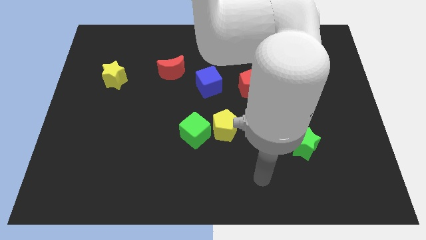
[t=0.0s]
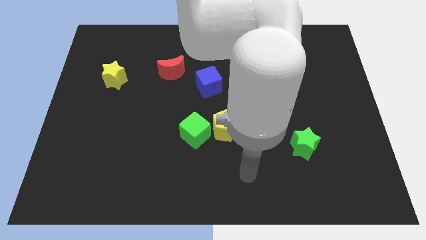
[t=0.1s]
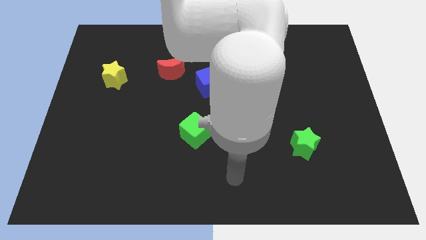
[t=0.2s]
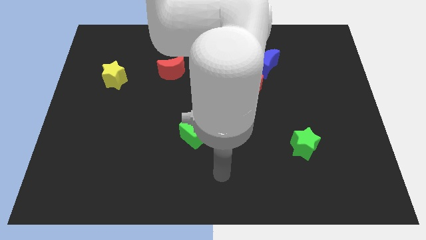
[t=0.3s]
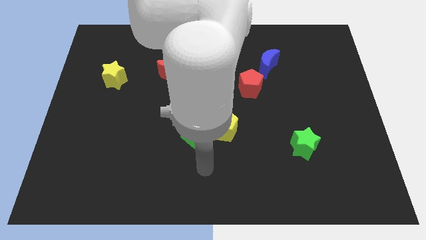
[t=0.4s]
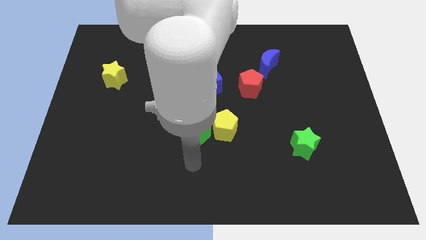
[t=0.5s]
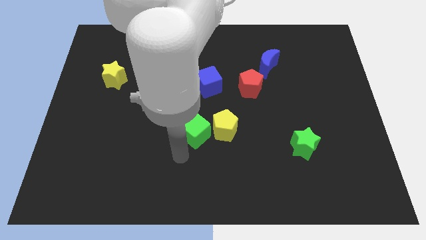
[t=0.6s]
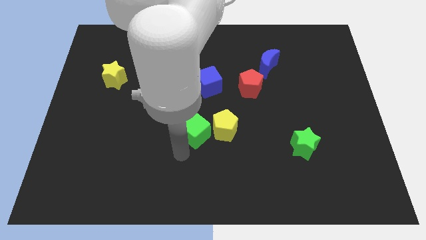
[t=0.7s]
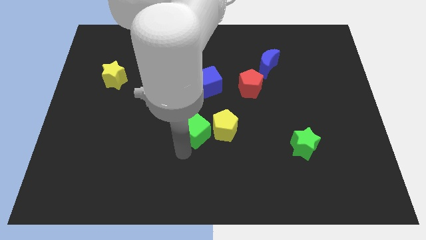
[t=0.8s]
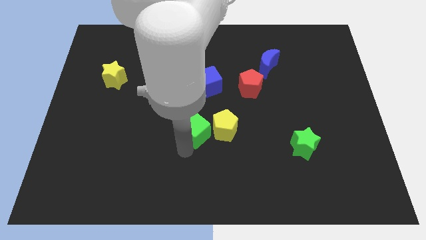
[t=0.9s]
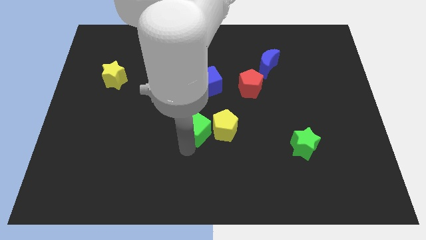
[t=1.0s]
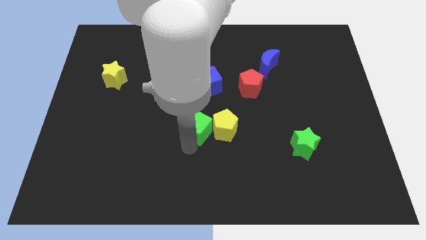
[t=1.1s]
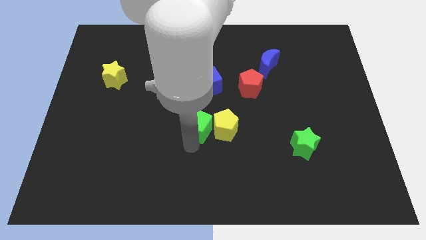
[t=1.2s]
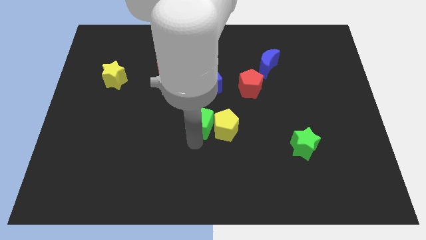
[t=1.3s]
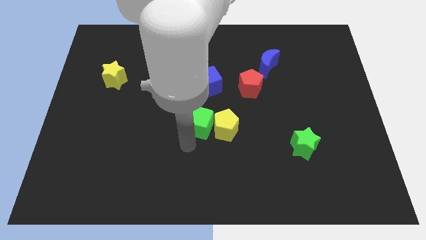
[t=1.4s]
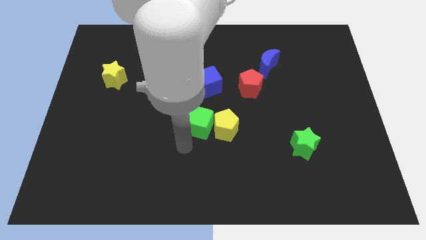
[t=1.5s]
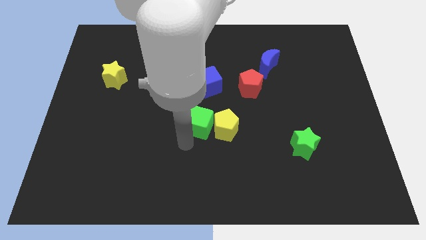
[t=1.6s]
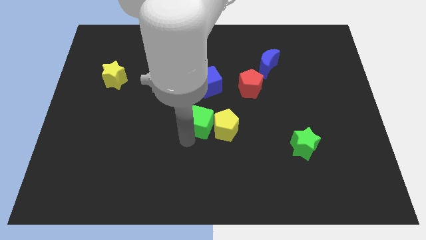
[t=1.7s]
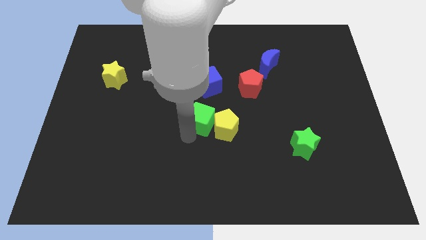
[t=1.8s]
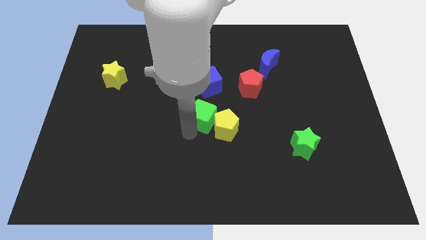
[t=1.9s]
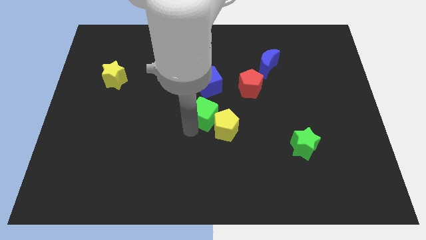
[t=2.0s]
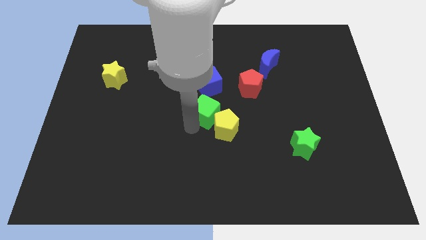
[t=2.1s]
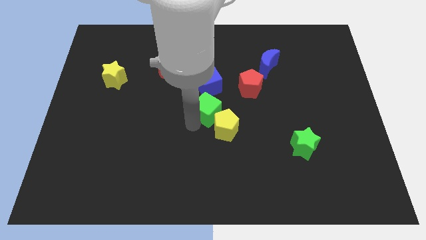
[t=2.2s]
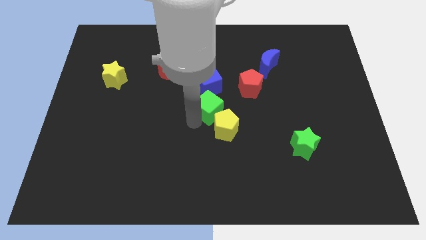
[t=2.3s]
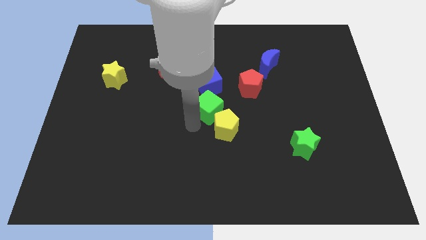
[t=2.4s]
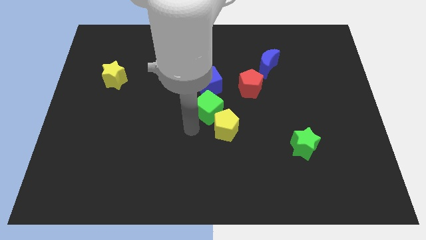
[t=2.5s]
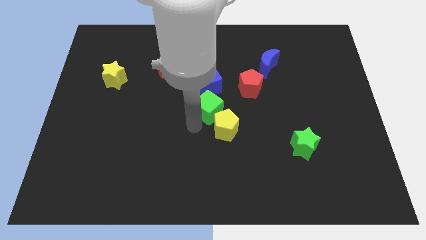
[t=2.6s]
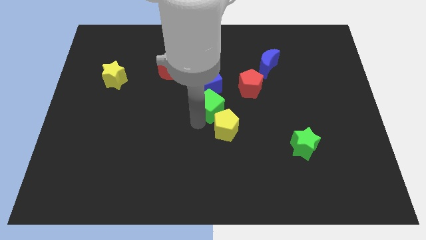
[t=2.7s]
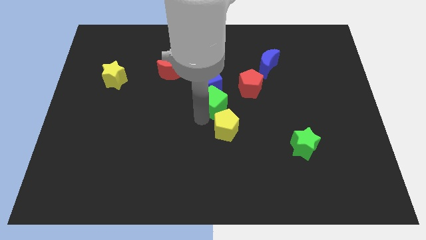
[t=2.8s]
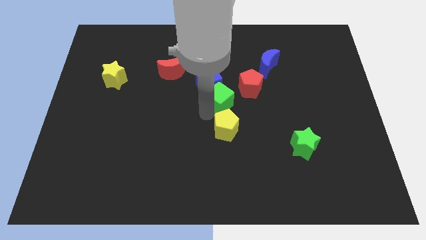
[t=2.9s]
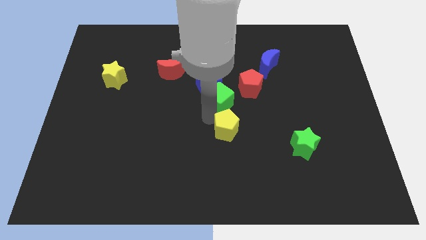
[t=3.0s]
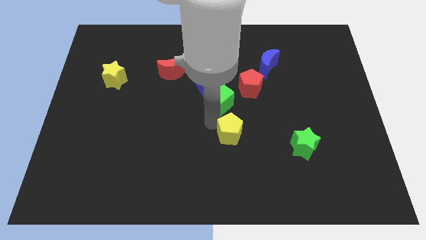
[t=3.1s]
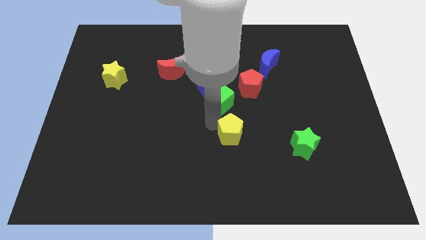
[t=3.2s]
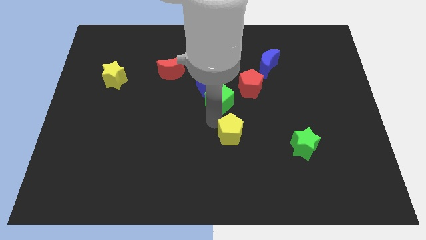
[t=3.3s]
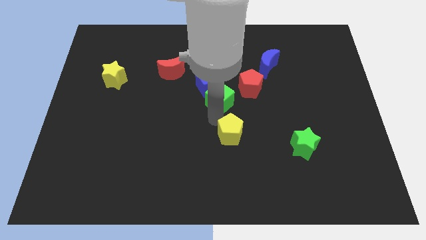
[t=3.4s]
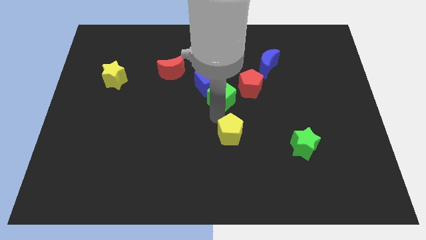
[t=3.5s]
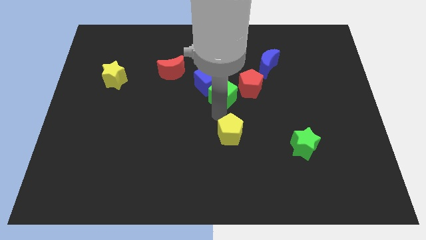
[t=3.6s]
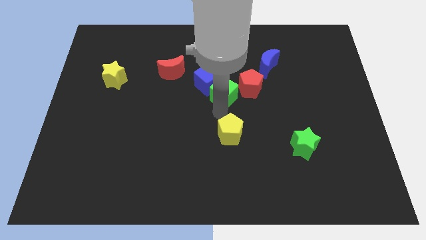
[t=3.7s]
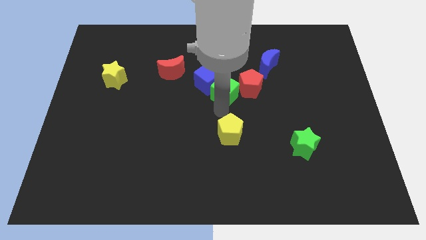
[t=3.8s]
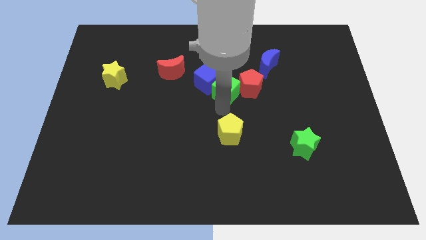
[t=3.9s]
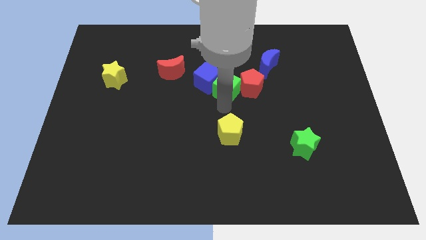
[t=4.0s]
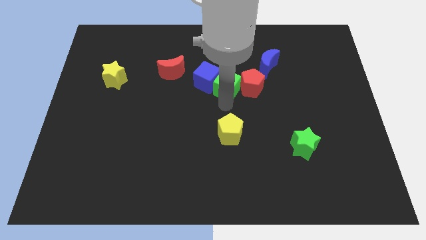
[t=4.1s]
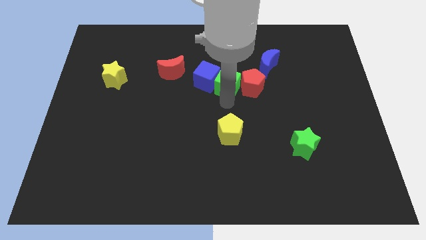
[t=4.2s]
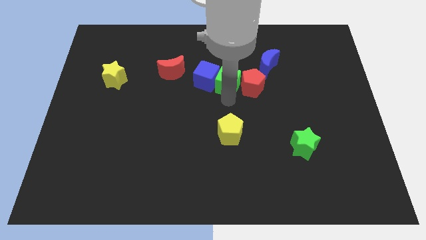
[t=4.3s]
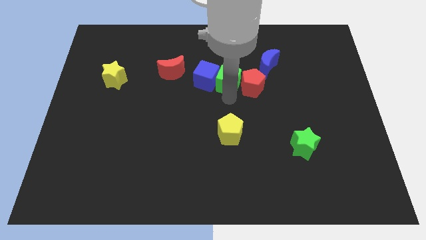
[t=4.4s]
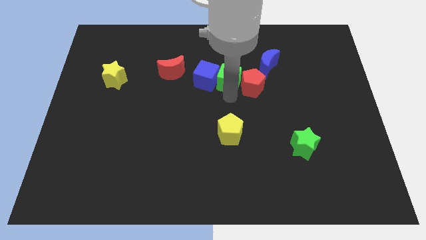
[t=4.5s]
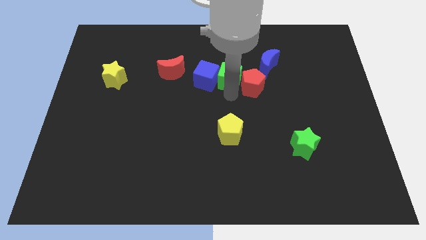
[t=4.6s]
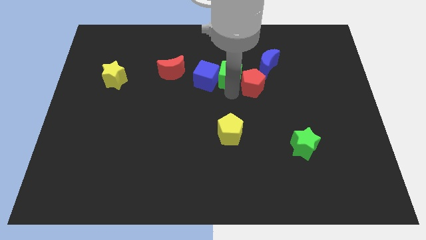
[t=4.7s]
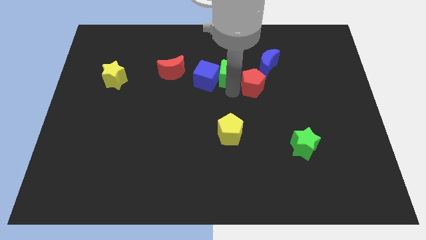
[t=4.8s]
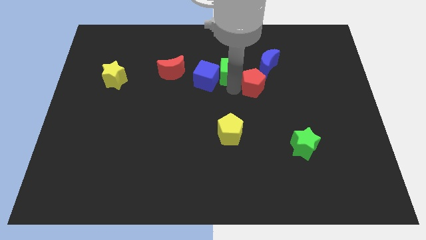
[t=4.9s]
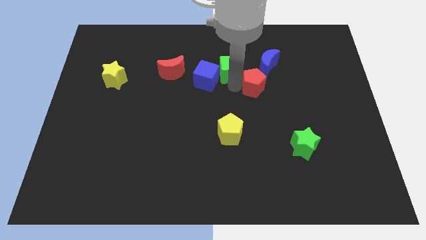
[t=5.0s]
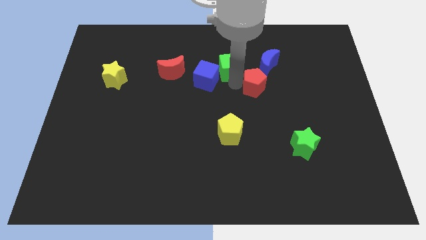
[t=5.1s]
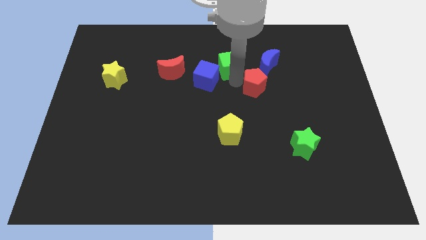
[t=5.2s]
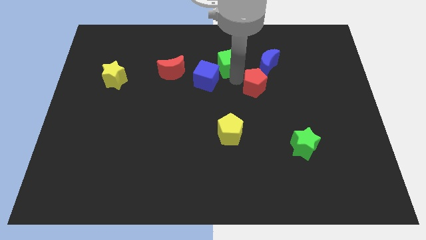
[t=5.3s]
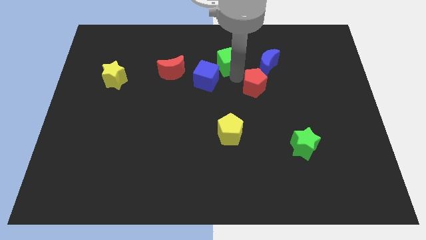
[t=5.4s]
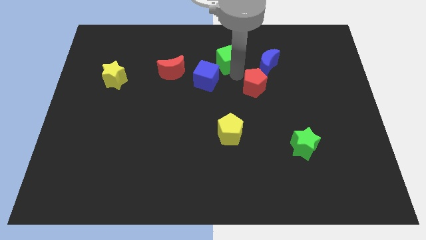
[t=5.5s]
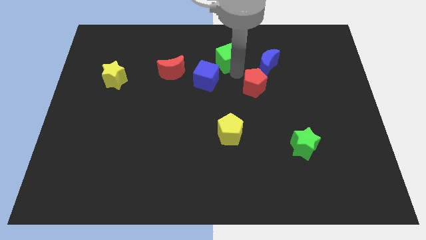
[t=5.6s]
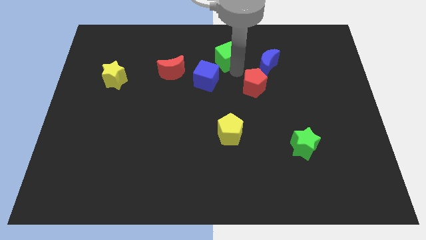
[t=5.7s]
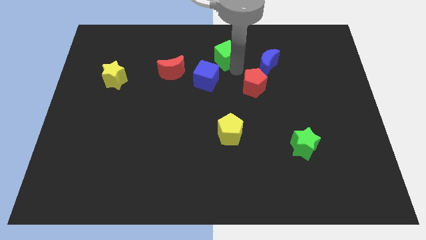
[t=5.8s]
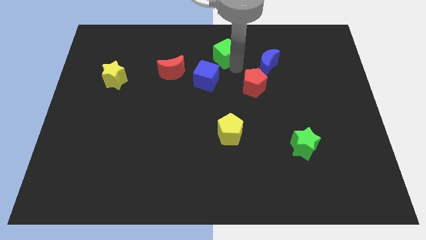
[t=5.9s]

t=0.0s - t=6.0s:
put the green cube to the top

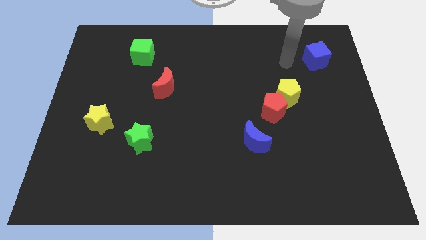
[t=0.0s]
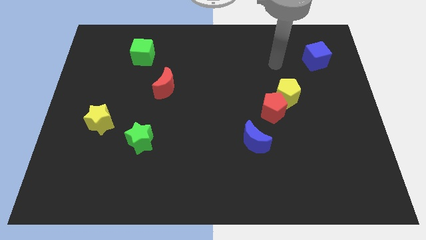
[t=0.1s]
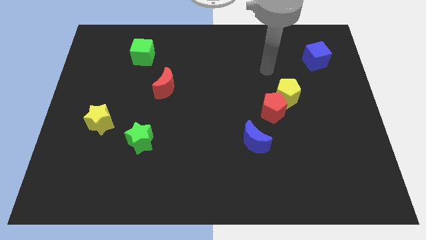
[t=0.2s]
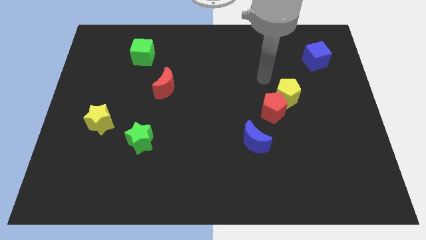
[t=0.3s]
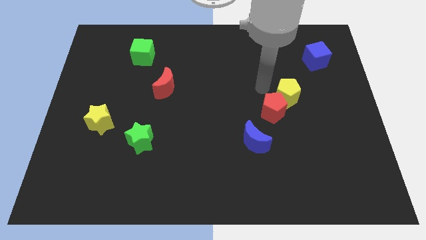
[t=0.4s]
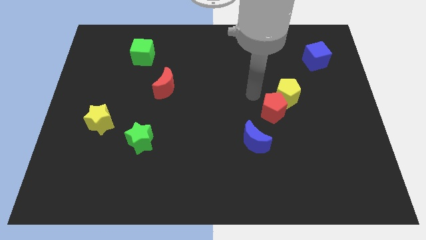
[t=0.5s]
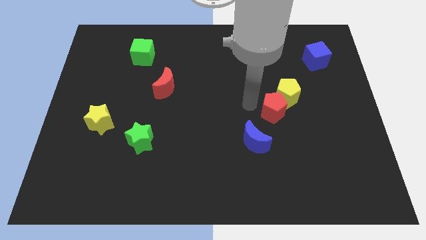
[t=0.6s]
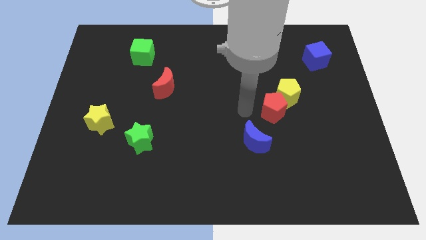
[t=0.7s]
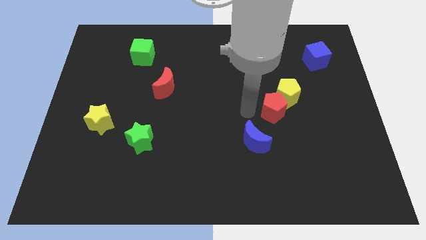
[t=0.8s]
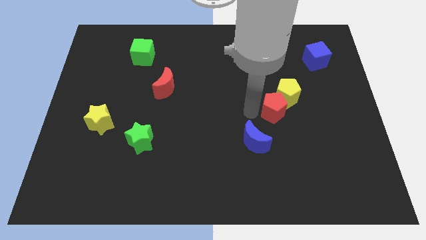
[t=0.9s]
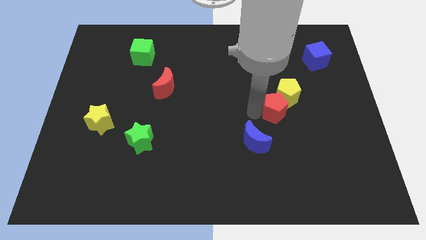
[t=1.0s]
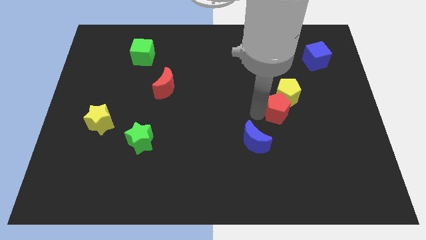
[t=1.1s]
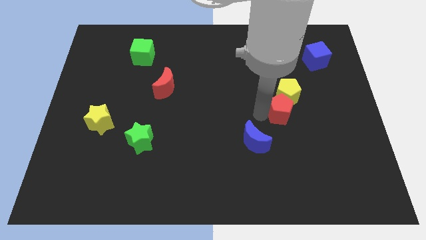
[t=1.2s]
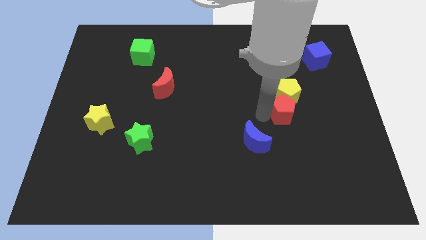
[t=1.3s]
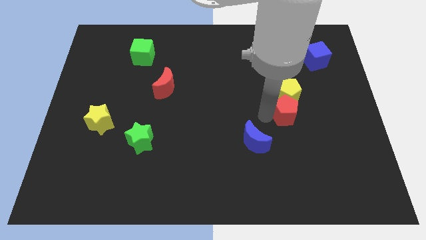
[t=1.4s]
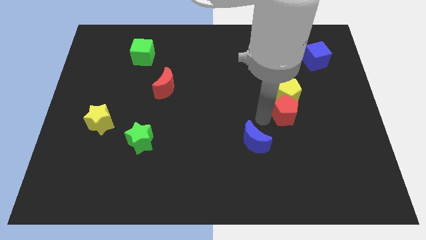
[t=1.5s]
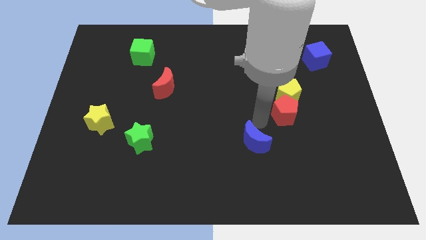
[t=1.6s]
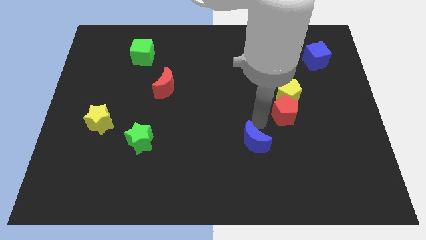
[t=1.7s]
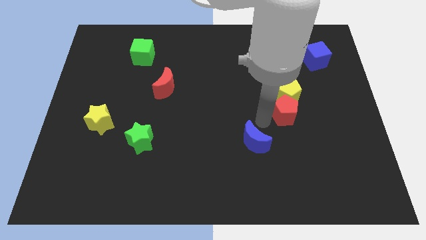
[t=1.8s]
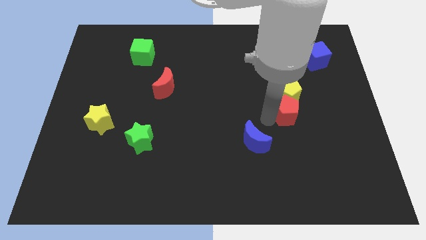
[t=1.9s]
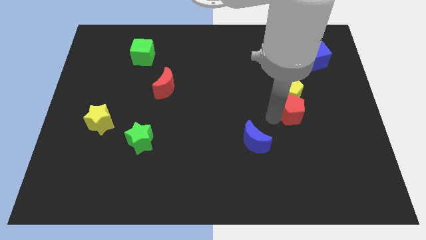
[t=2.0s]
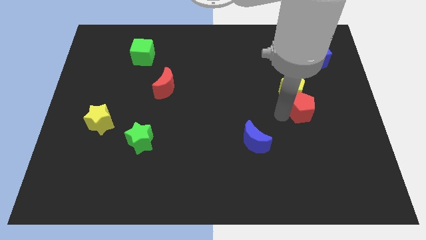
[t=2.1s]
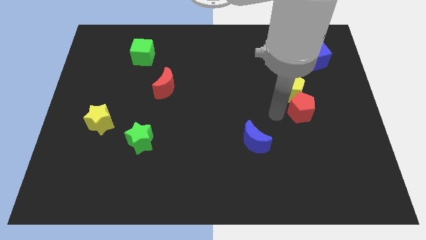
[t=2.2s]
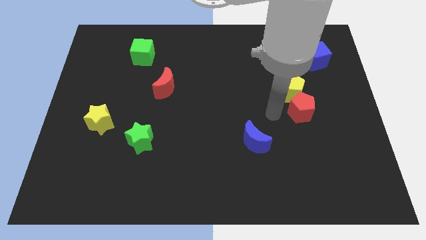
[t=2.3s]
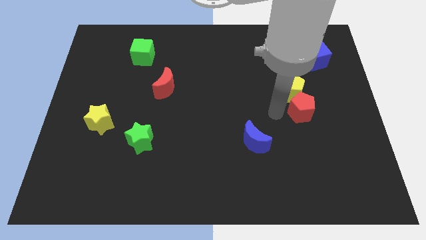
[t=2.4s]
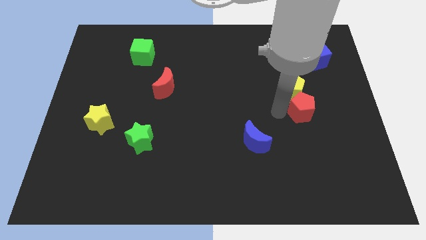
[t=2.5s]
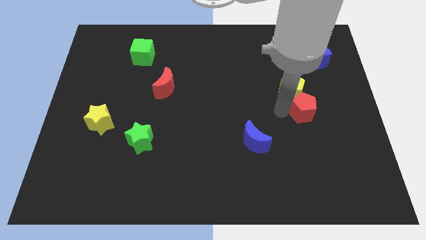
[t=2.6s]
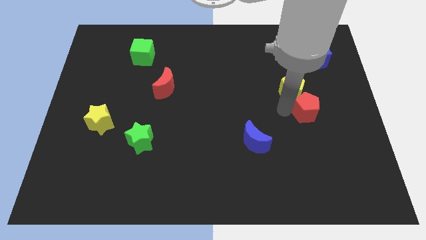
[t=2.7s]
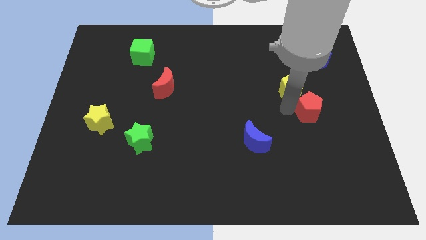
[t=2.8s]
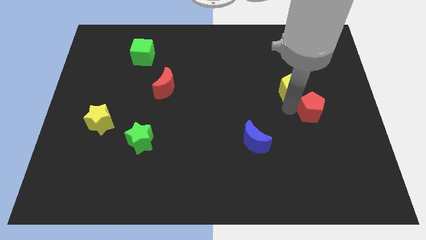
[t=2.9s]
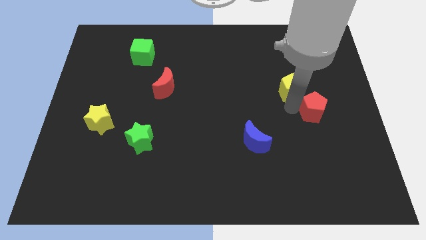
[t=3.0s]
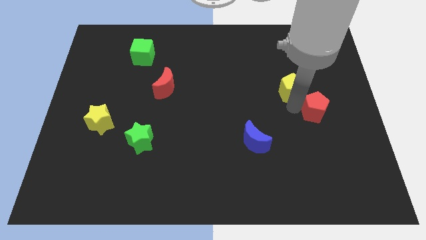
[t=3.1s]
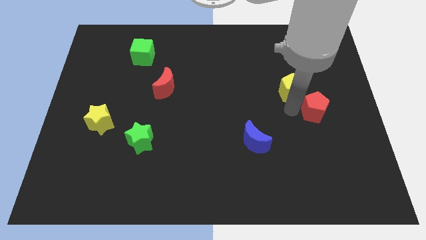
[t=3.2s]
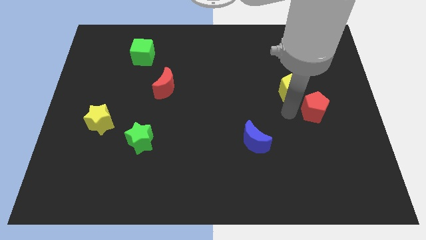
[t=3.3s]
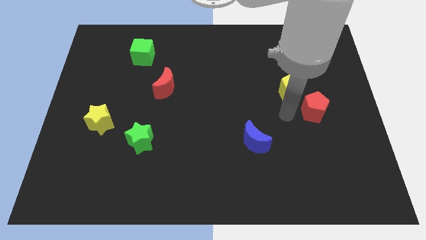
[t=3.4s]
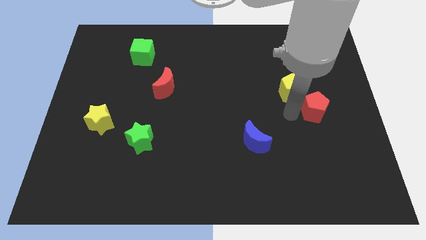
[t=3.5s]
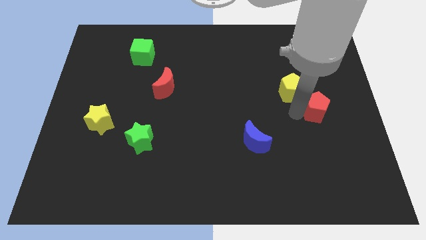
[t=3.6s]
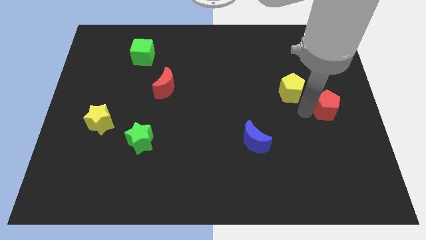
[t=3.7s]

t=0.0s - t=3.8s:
slide the red pentagon to the center right
